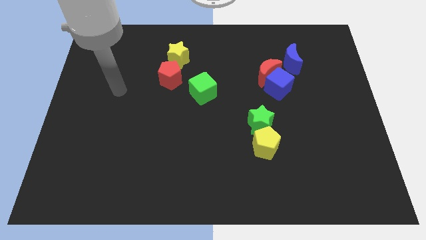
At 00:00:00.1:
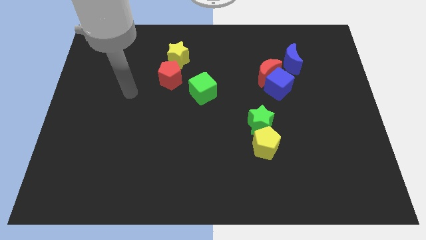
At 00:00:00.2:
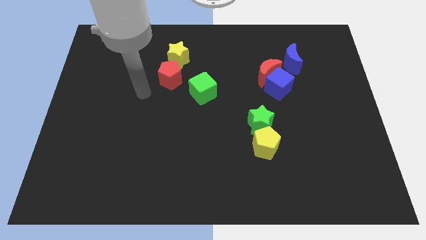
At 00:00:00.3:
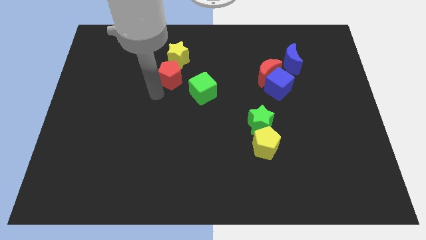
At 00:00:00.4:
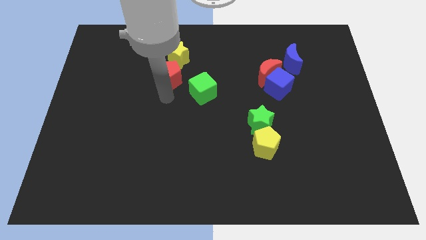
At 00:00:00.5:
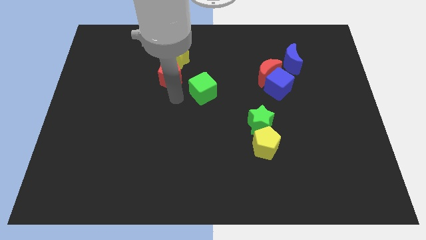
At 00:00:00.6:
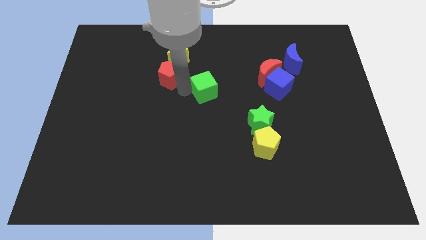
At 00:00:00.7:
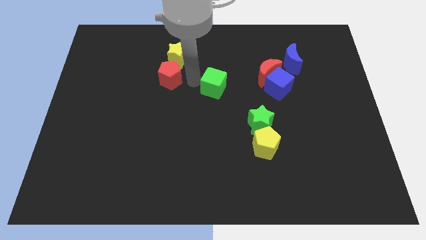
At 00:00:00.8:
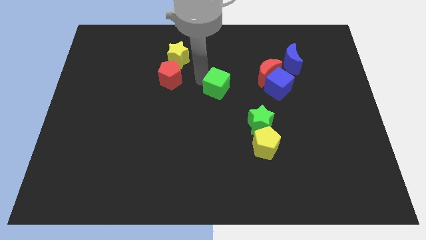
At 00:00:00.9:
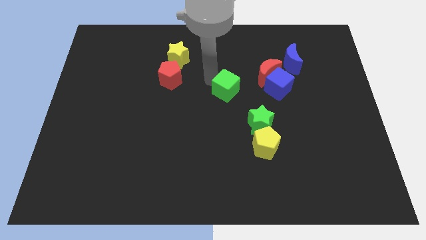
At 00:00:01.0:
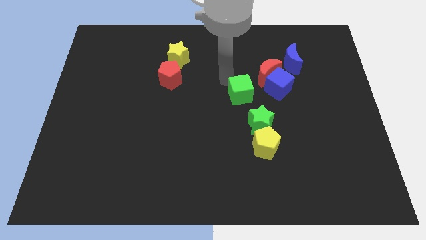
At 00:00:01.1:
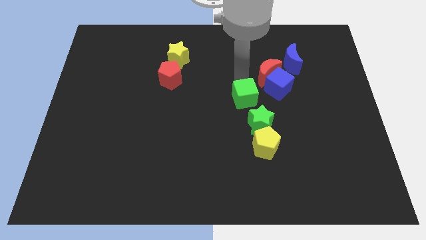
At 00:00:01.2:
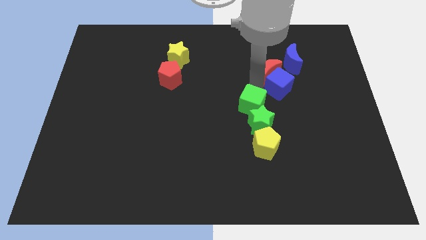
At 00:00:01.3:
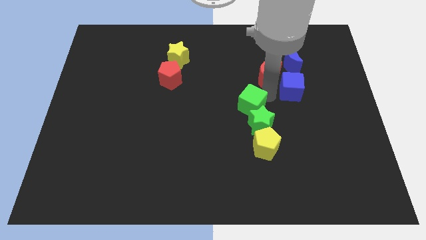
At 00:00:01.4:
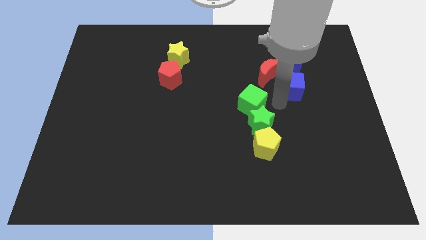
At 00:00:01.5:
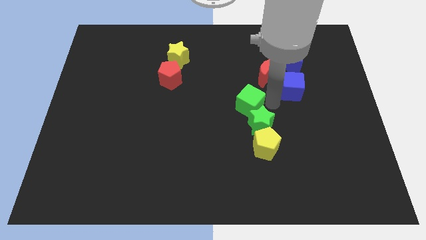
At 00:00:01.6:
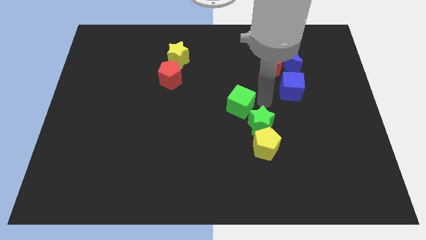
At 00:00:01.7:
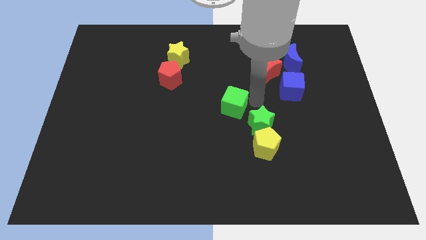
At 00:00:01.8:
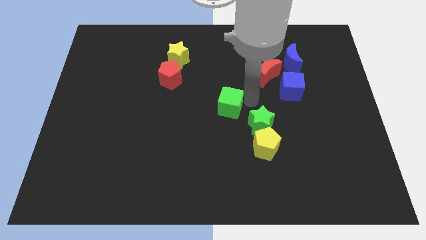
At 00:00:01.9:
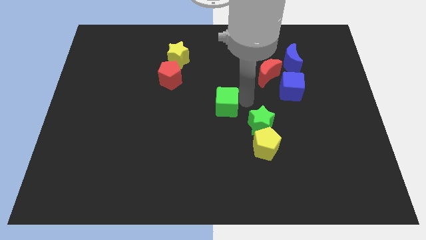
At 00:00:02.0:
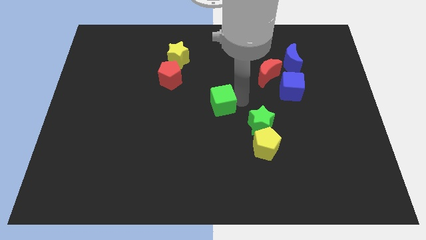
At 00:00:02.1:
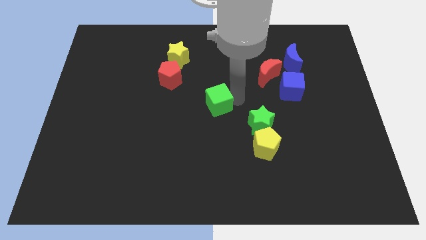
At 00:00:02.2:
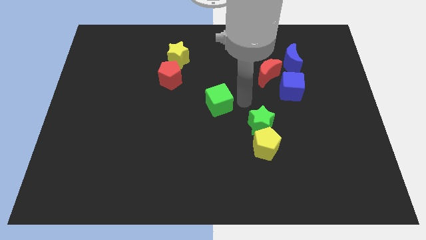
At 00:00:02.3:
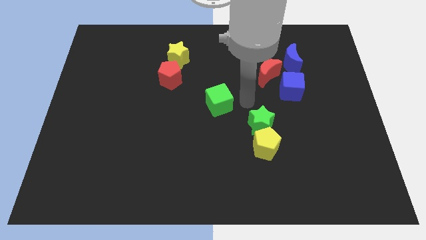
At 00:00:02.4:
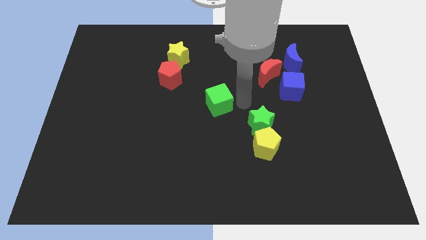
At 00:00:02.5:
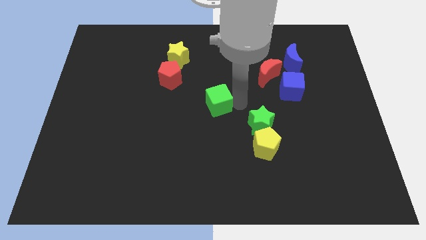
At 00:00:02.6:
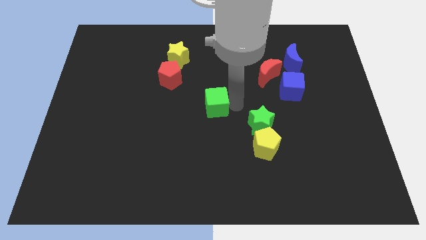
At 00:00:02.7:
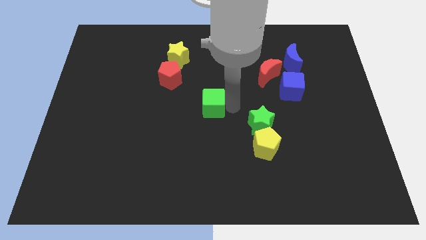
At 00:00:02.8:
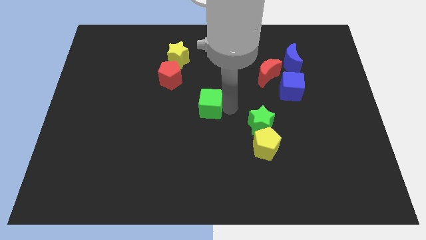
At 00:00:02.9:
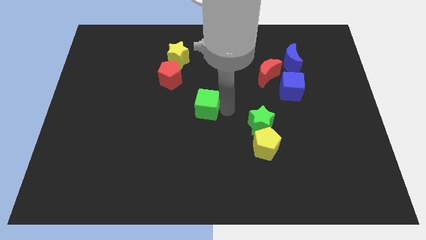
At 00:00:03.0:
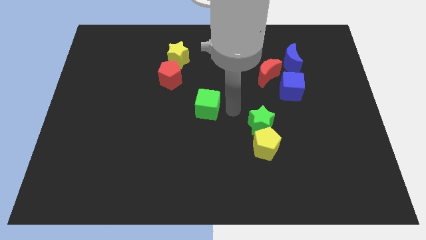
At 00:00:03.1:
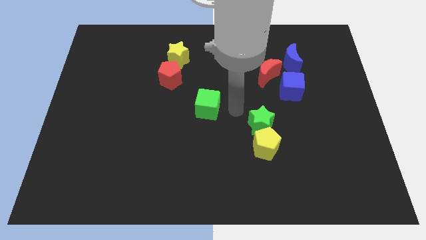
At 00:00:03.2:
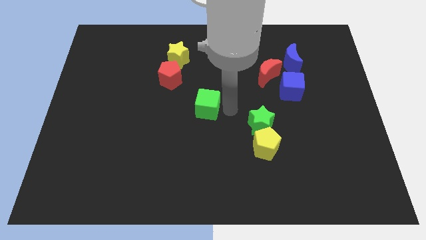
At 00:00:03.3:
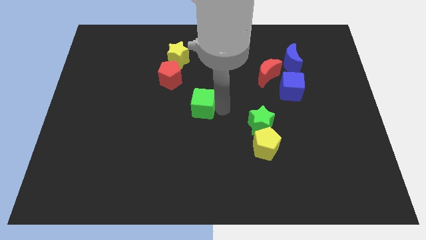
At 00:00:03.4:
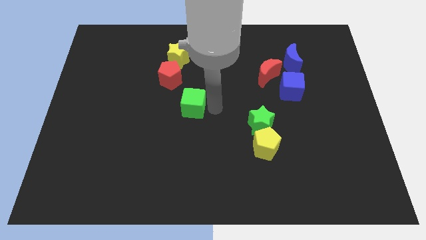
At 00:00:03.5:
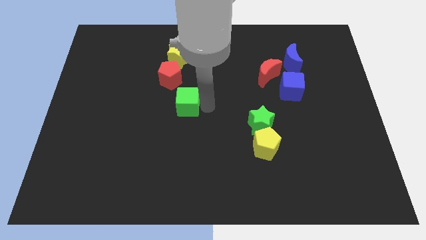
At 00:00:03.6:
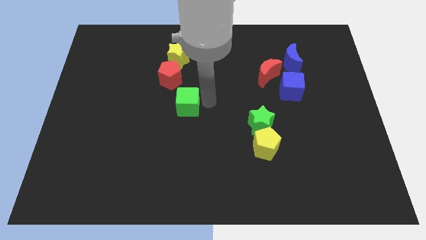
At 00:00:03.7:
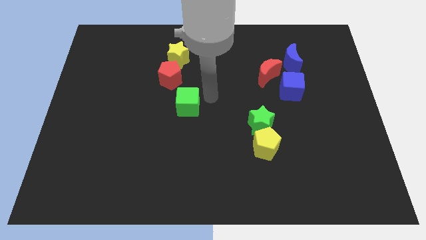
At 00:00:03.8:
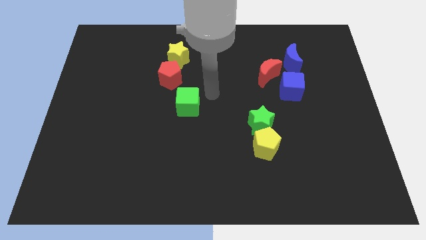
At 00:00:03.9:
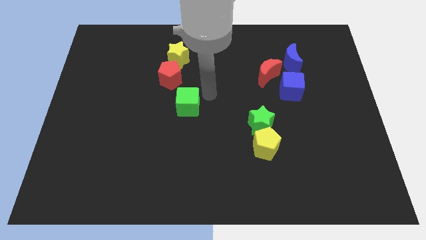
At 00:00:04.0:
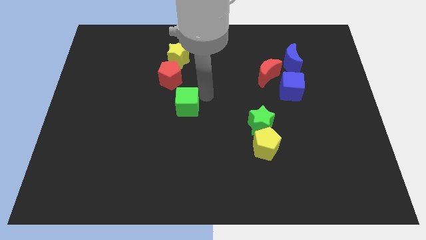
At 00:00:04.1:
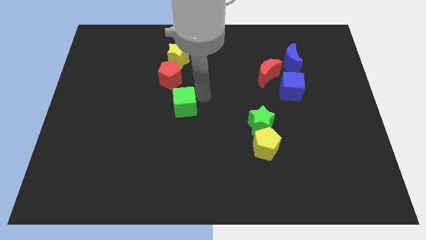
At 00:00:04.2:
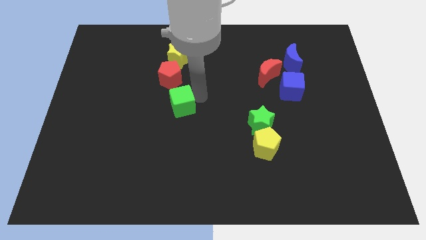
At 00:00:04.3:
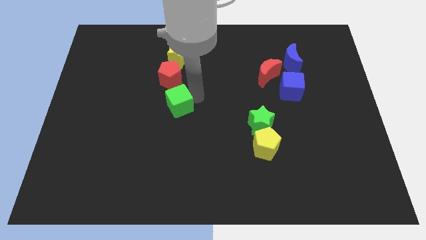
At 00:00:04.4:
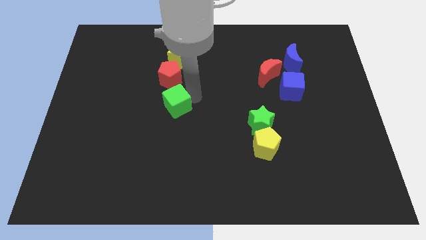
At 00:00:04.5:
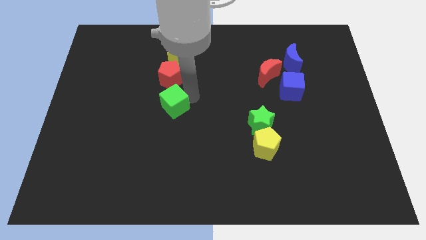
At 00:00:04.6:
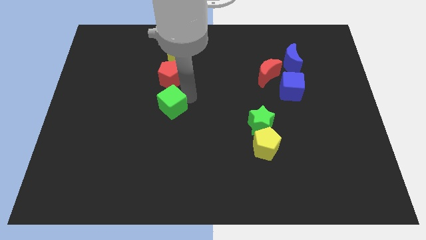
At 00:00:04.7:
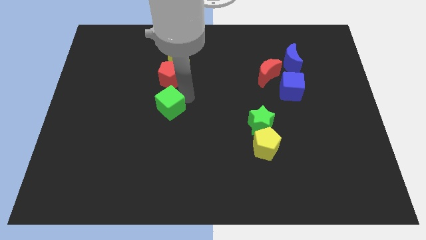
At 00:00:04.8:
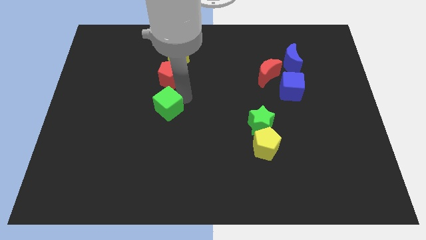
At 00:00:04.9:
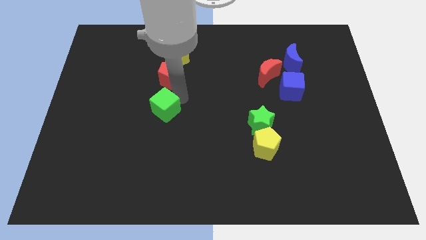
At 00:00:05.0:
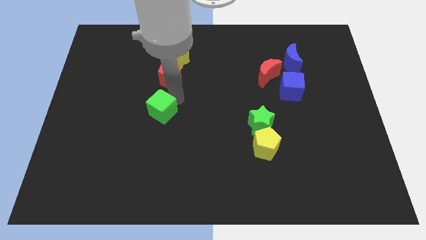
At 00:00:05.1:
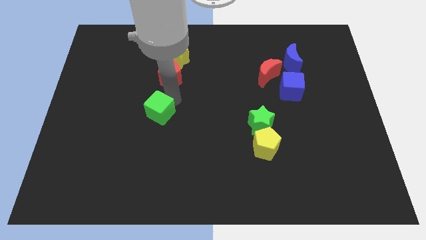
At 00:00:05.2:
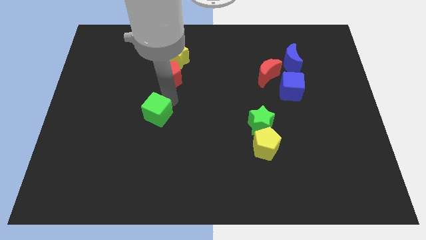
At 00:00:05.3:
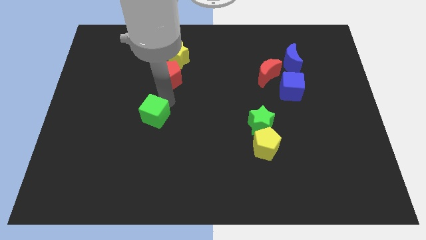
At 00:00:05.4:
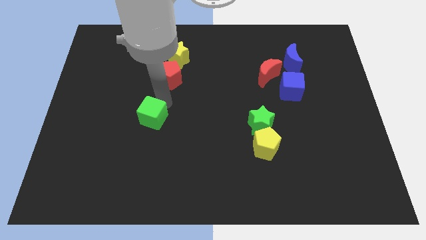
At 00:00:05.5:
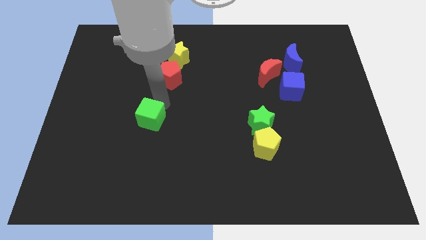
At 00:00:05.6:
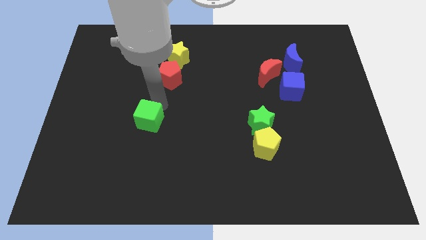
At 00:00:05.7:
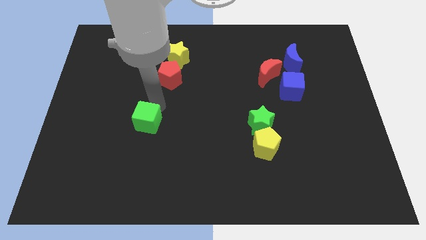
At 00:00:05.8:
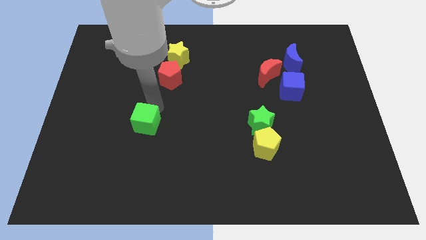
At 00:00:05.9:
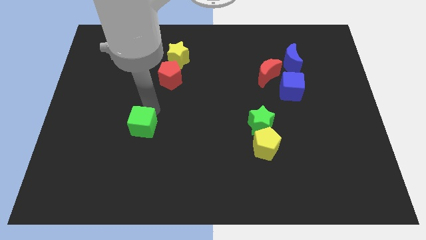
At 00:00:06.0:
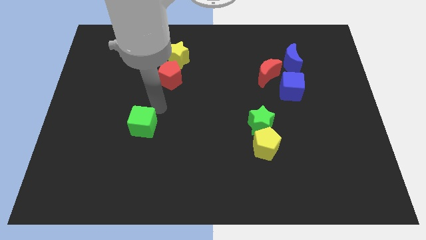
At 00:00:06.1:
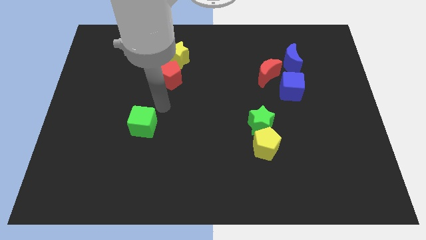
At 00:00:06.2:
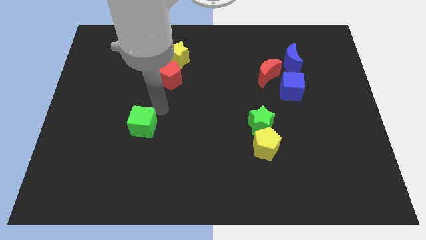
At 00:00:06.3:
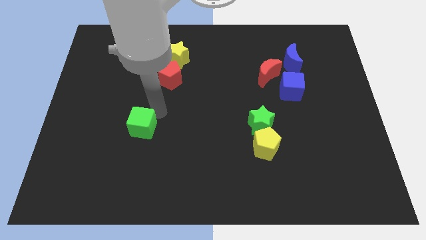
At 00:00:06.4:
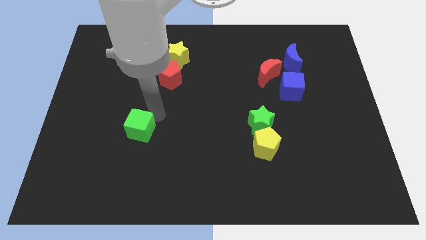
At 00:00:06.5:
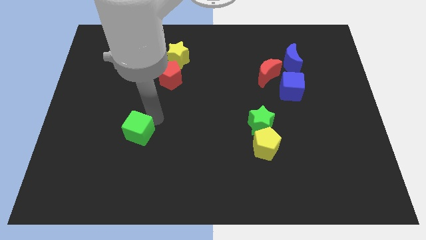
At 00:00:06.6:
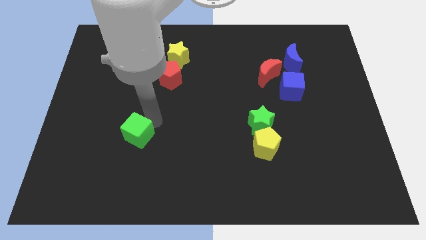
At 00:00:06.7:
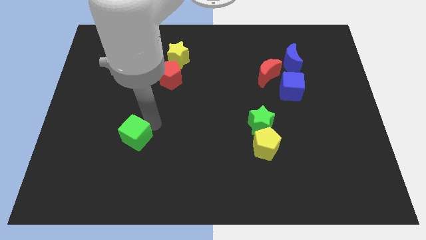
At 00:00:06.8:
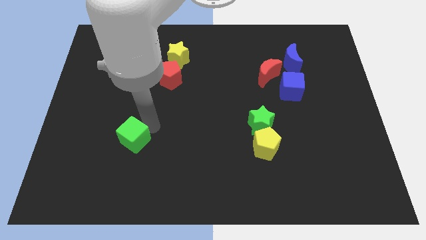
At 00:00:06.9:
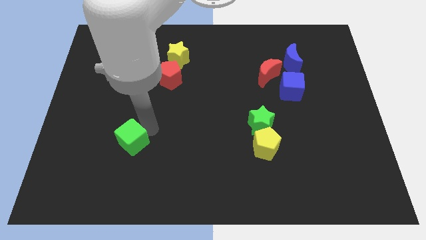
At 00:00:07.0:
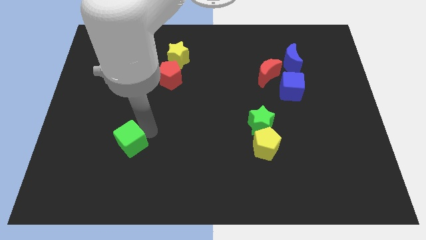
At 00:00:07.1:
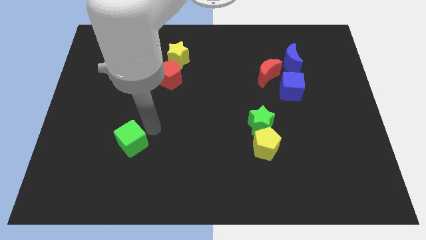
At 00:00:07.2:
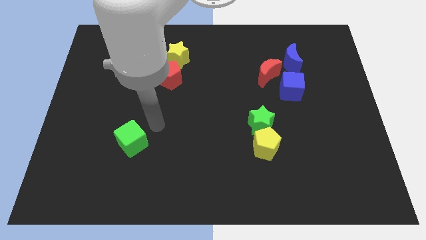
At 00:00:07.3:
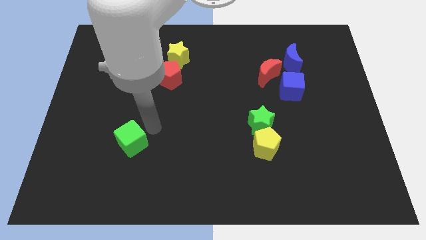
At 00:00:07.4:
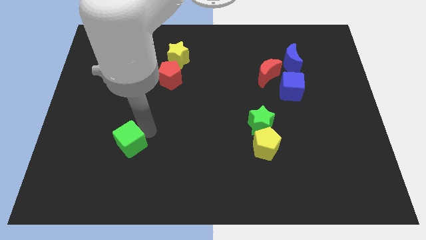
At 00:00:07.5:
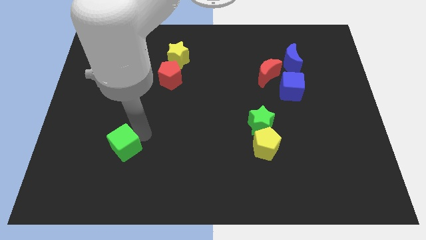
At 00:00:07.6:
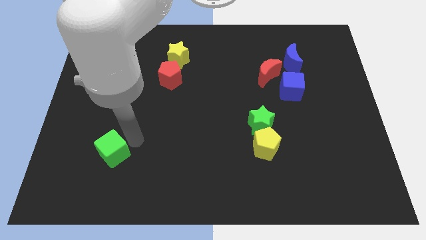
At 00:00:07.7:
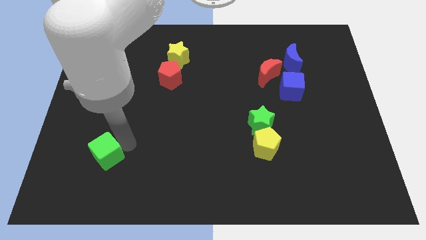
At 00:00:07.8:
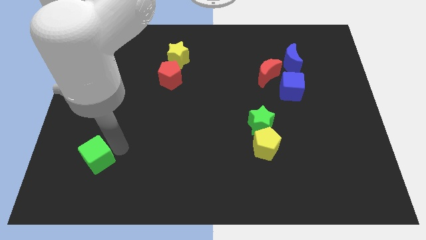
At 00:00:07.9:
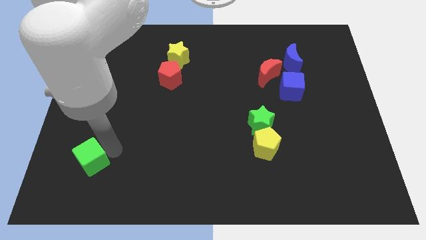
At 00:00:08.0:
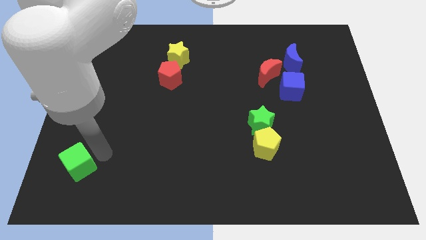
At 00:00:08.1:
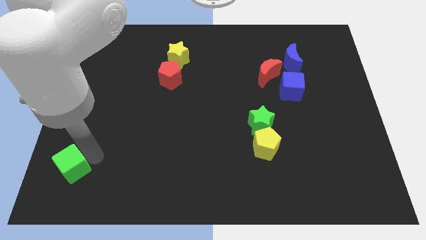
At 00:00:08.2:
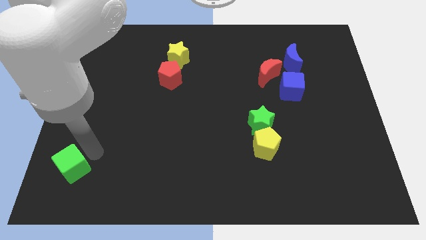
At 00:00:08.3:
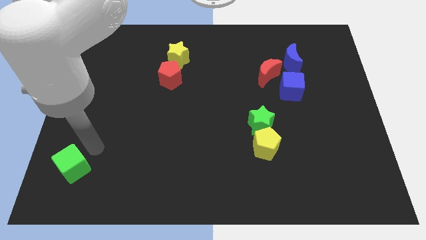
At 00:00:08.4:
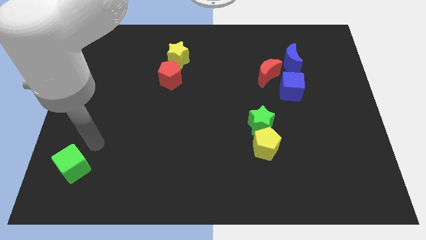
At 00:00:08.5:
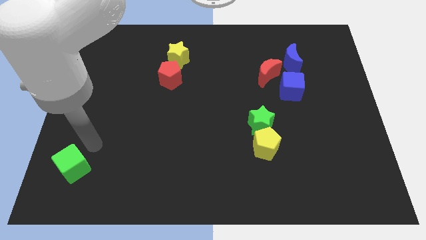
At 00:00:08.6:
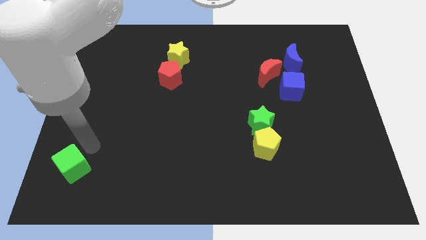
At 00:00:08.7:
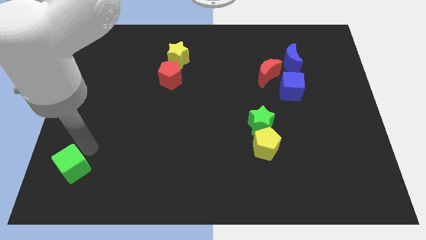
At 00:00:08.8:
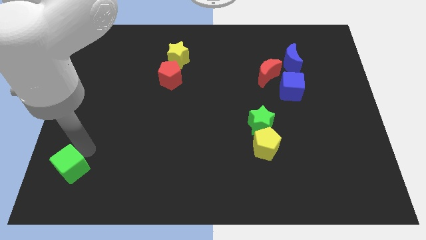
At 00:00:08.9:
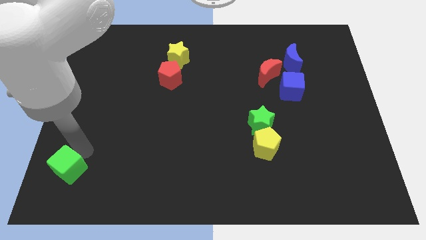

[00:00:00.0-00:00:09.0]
slide the green cube to the bottom left corner
